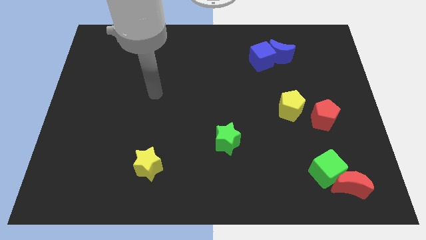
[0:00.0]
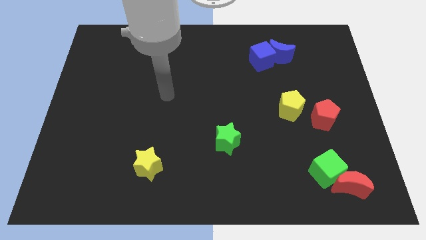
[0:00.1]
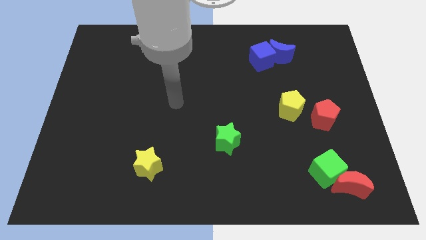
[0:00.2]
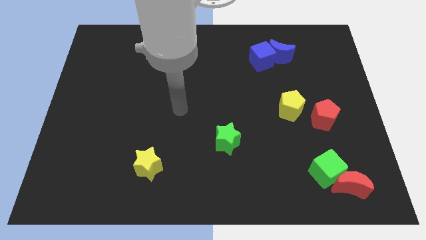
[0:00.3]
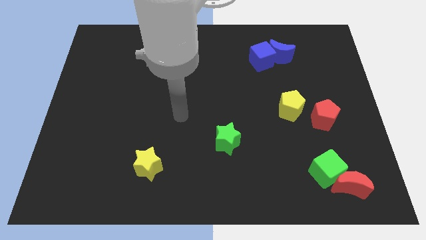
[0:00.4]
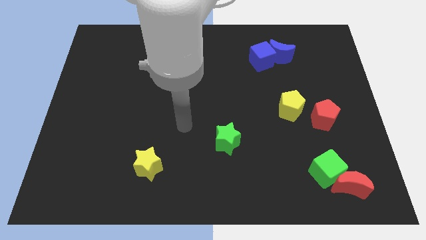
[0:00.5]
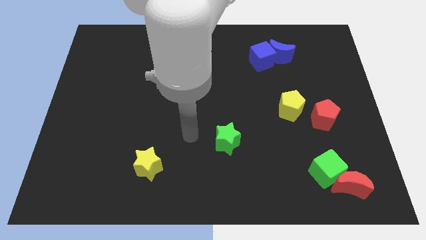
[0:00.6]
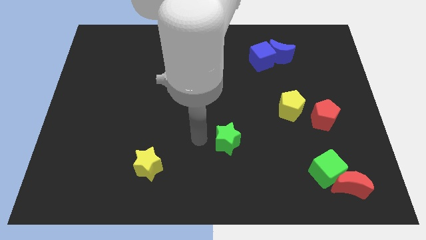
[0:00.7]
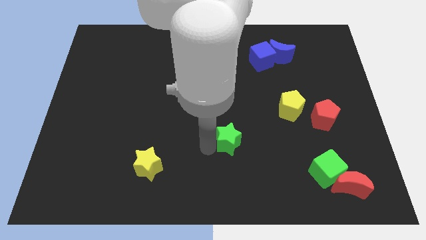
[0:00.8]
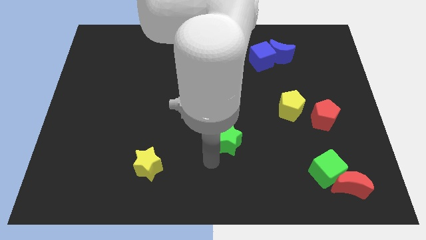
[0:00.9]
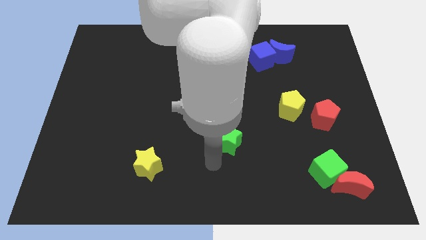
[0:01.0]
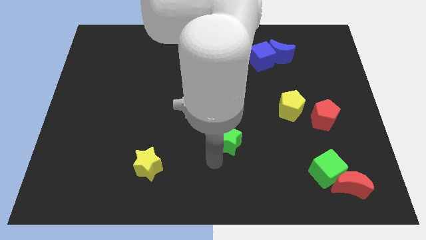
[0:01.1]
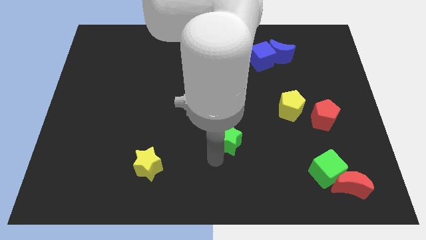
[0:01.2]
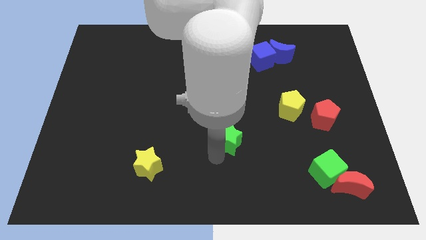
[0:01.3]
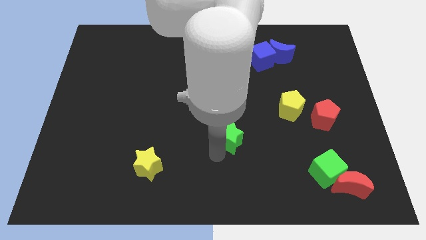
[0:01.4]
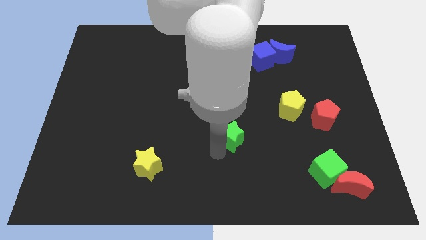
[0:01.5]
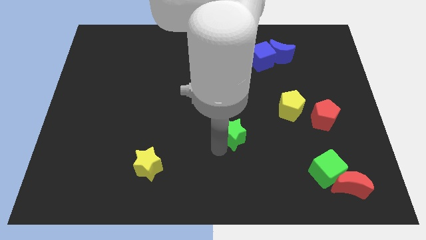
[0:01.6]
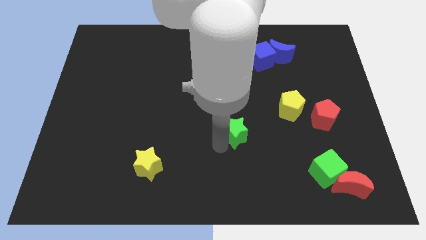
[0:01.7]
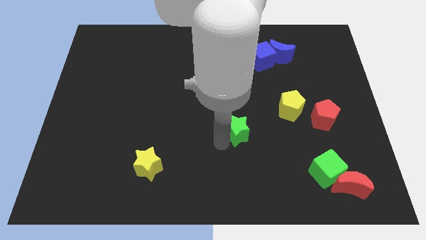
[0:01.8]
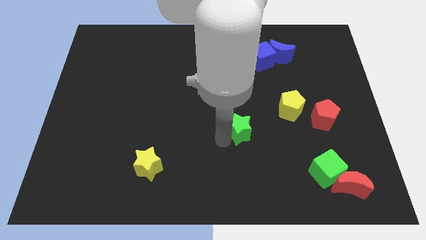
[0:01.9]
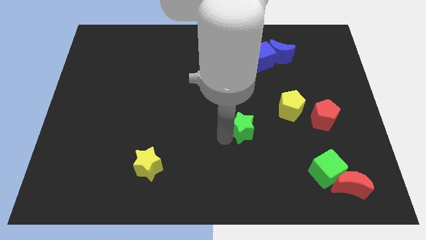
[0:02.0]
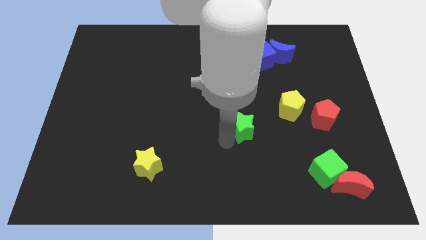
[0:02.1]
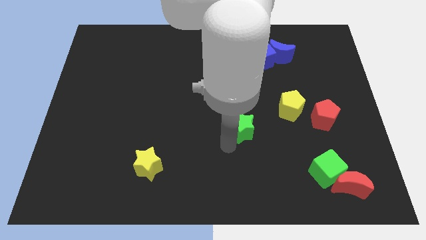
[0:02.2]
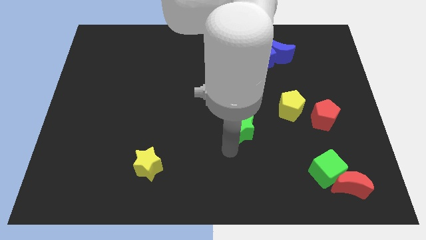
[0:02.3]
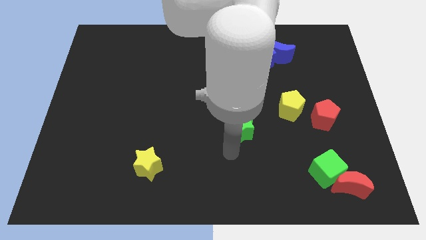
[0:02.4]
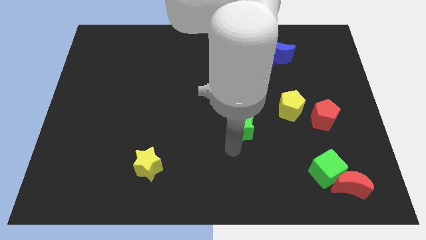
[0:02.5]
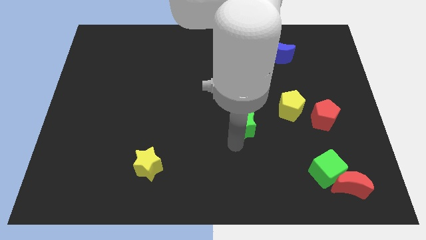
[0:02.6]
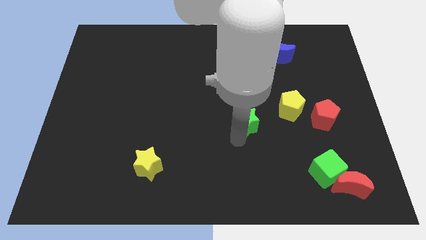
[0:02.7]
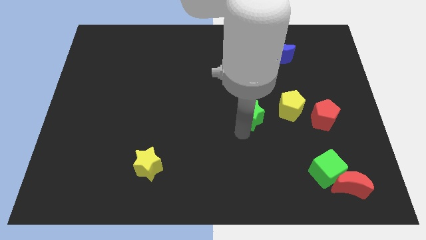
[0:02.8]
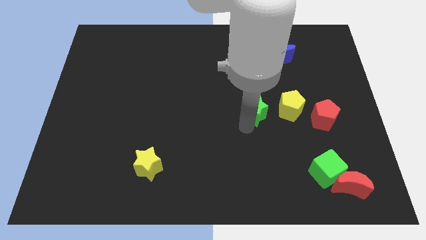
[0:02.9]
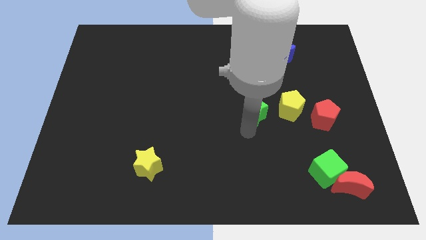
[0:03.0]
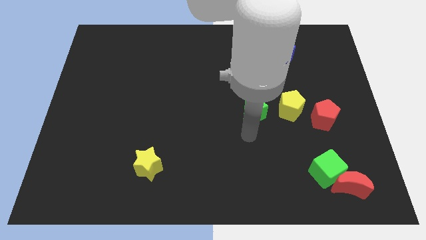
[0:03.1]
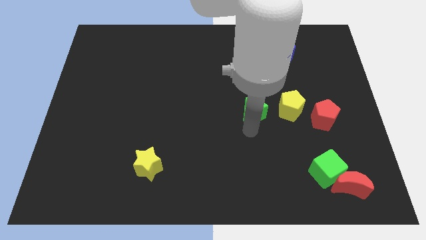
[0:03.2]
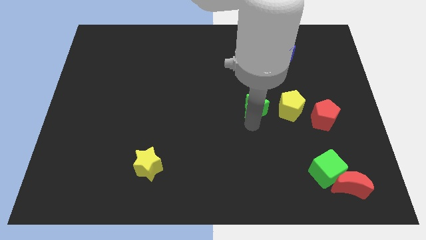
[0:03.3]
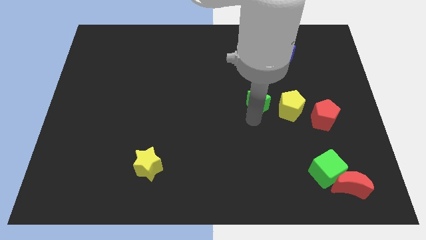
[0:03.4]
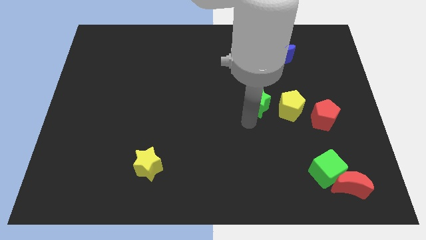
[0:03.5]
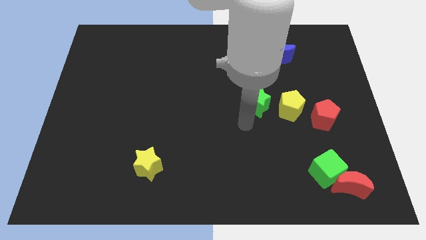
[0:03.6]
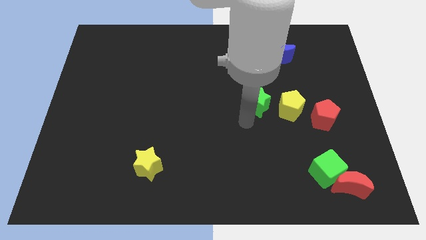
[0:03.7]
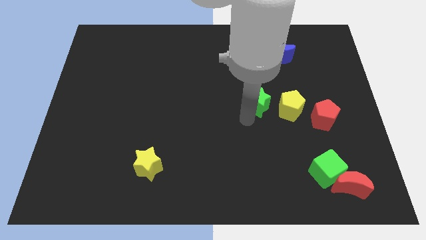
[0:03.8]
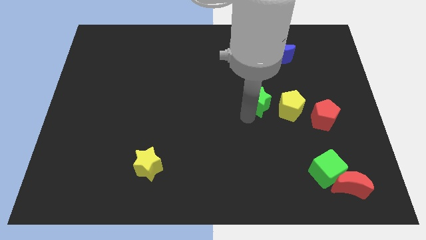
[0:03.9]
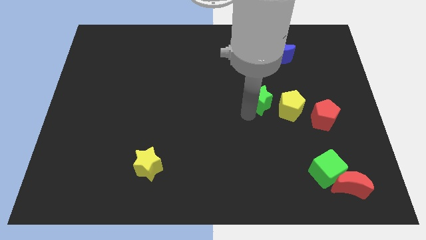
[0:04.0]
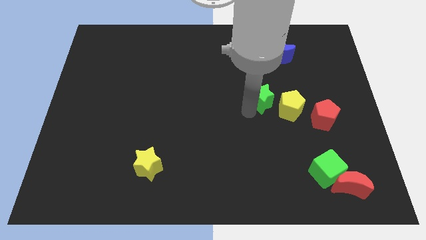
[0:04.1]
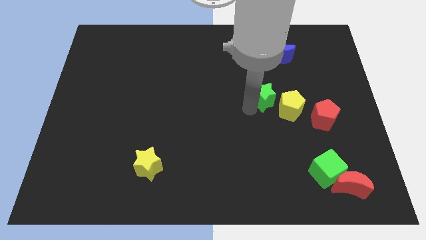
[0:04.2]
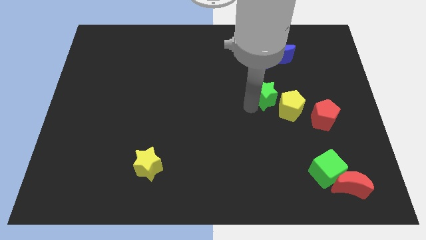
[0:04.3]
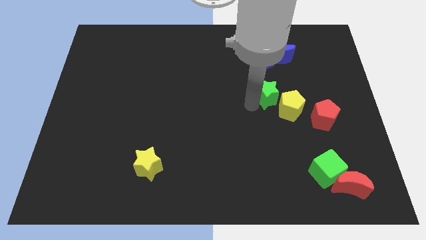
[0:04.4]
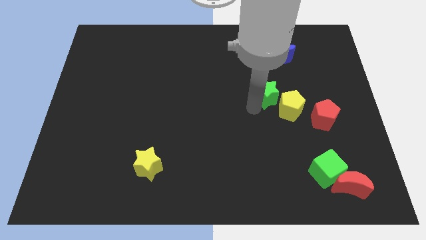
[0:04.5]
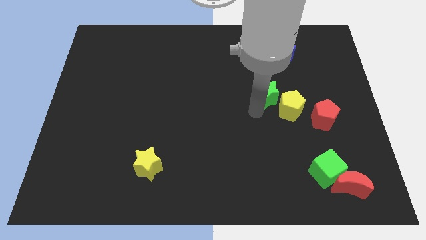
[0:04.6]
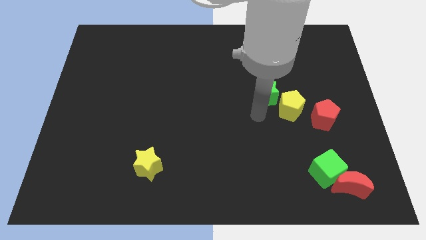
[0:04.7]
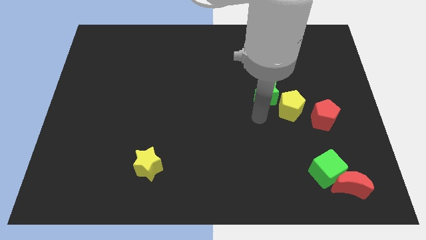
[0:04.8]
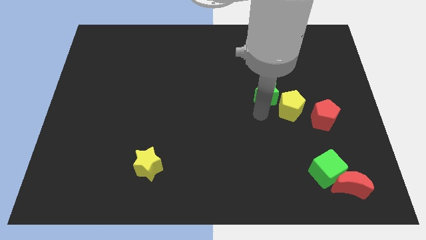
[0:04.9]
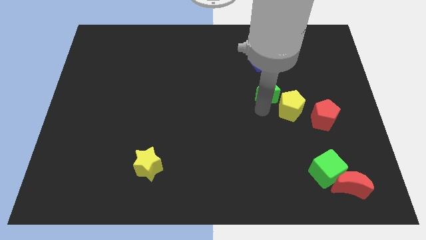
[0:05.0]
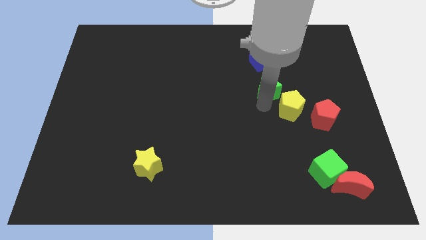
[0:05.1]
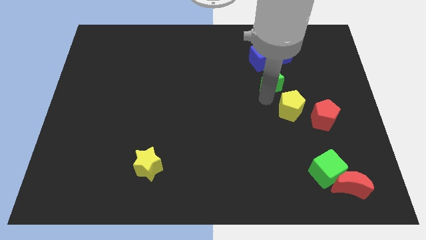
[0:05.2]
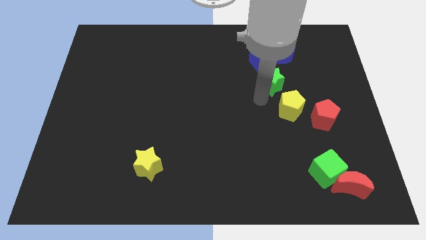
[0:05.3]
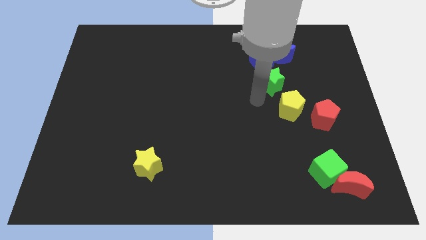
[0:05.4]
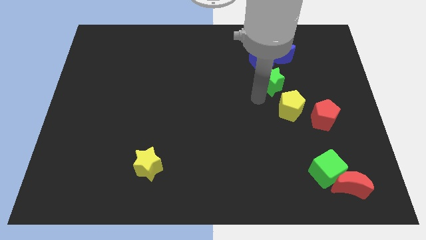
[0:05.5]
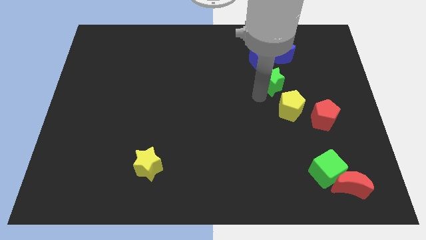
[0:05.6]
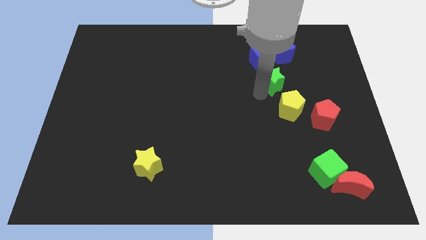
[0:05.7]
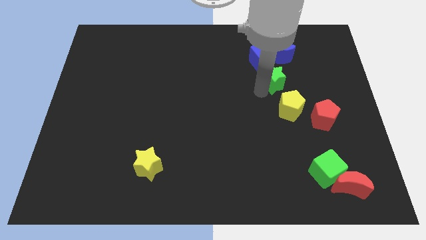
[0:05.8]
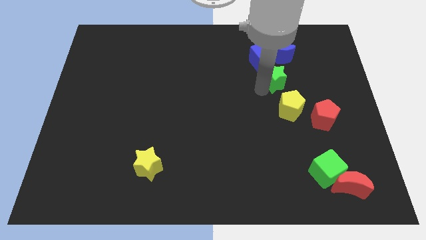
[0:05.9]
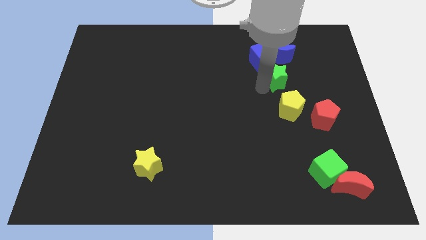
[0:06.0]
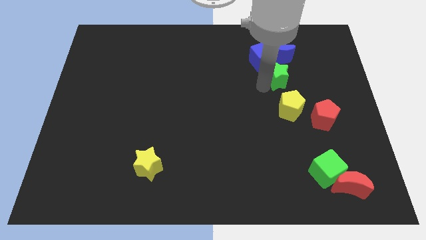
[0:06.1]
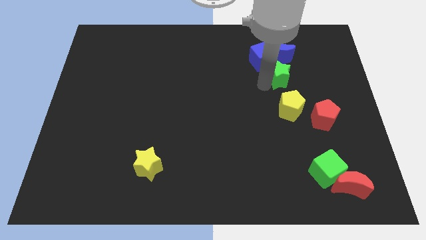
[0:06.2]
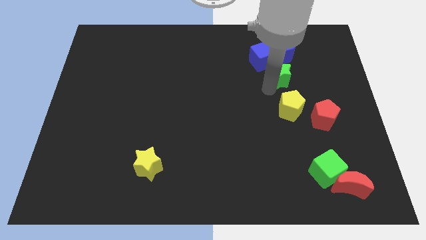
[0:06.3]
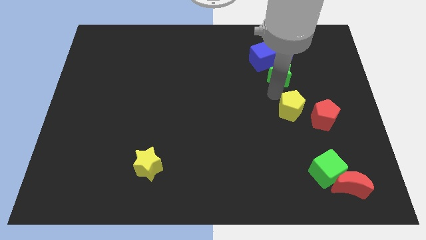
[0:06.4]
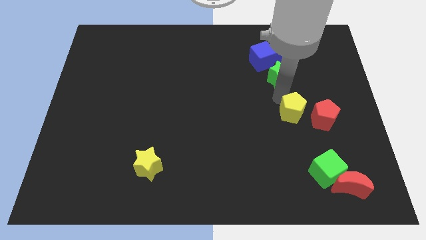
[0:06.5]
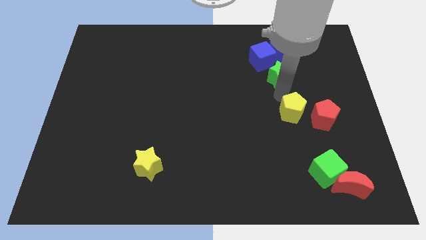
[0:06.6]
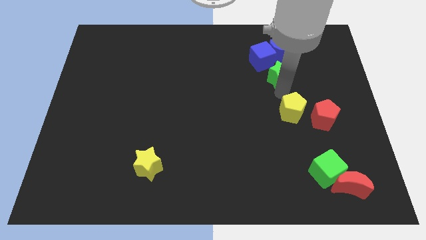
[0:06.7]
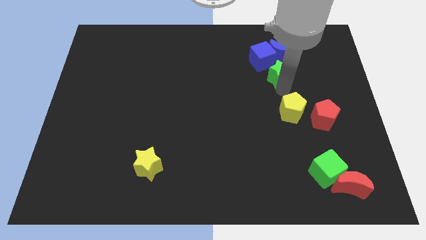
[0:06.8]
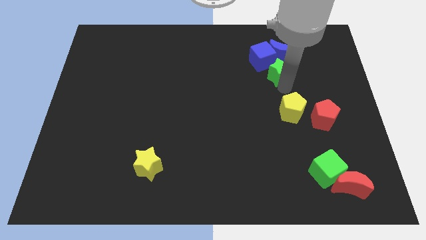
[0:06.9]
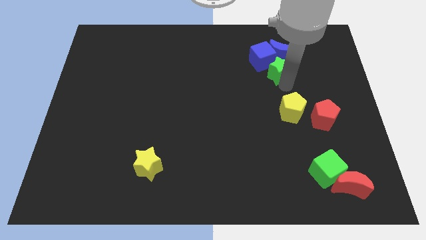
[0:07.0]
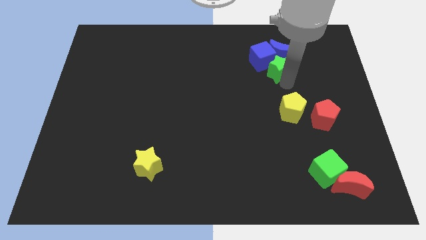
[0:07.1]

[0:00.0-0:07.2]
slide the green star next to the blue moon

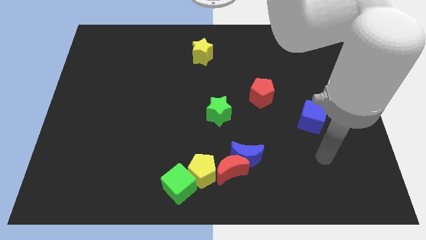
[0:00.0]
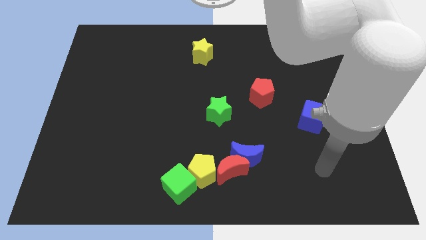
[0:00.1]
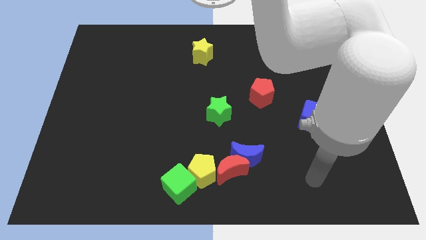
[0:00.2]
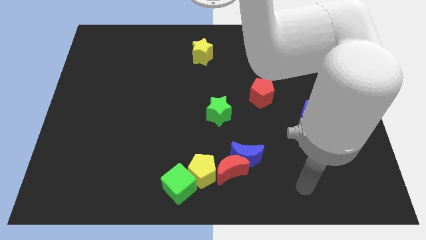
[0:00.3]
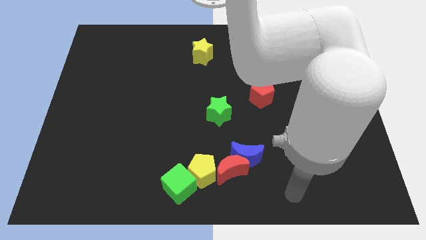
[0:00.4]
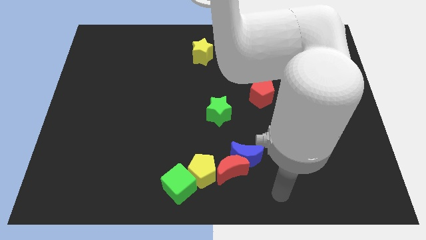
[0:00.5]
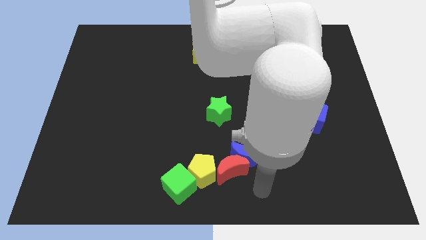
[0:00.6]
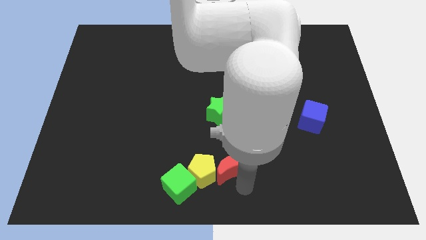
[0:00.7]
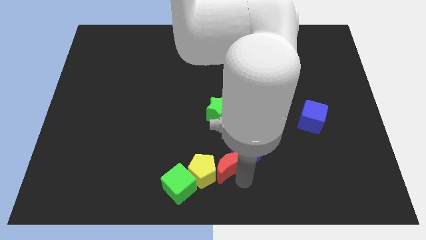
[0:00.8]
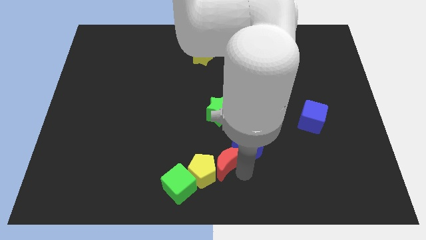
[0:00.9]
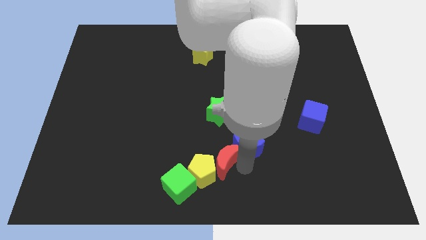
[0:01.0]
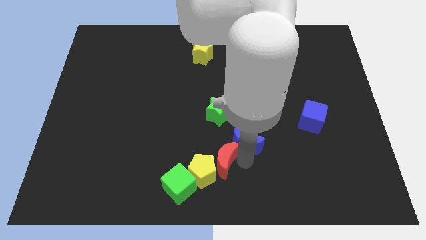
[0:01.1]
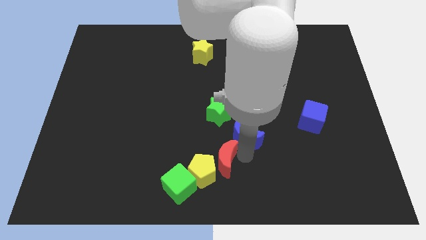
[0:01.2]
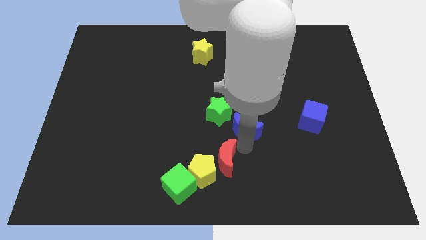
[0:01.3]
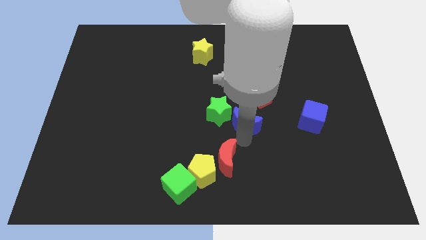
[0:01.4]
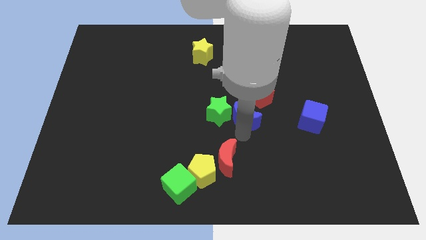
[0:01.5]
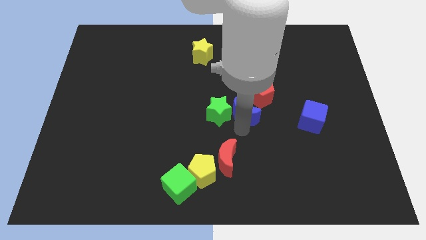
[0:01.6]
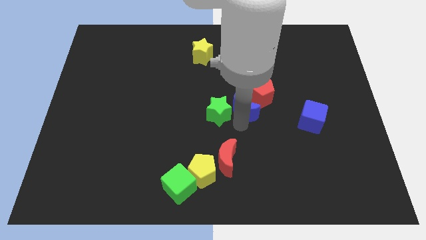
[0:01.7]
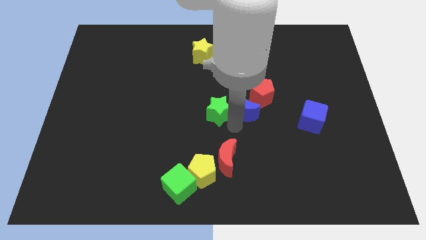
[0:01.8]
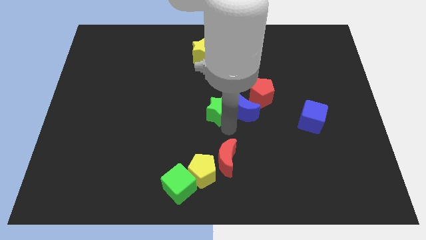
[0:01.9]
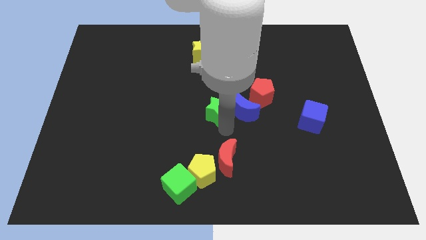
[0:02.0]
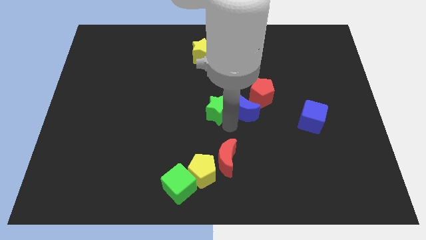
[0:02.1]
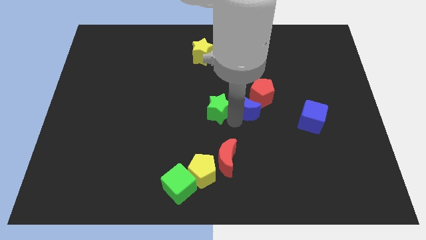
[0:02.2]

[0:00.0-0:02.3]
push the blue moon to the red pentagon
